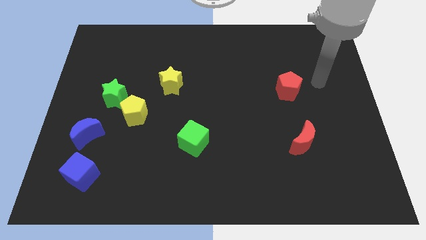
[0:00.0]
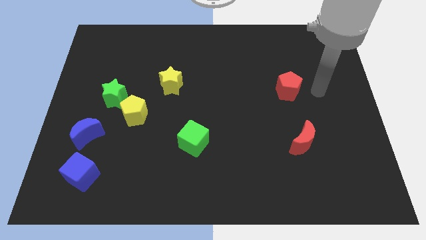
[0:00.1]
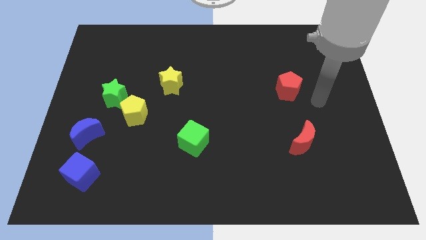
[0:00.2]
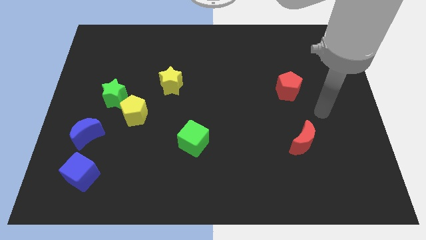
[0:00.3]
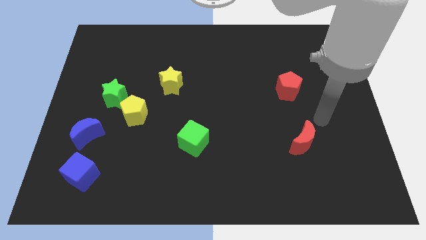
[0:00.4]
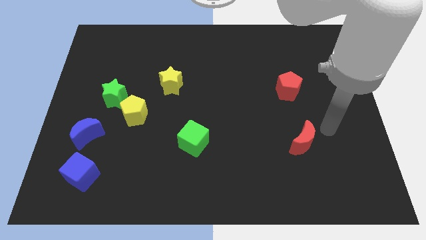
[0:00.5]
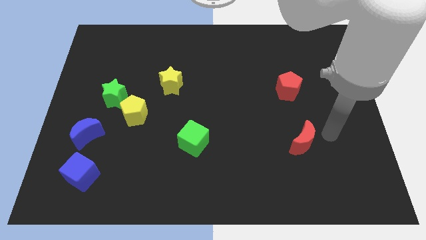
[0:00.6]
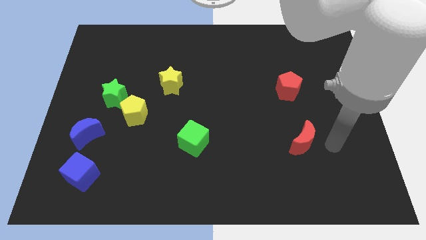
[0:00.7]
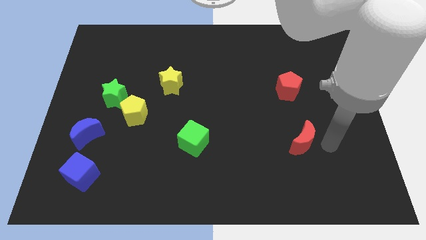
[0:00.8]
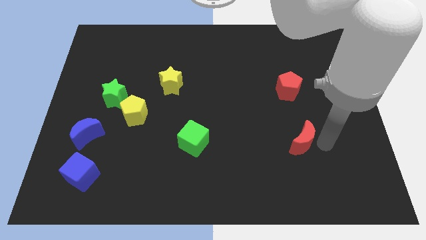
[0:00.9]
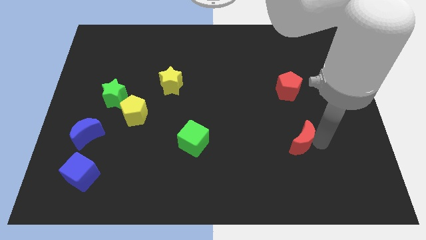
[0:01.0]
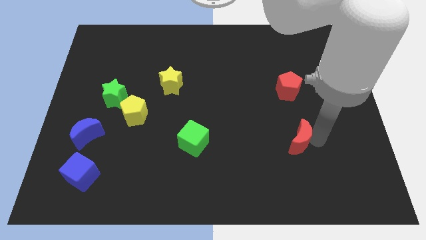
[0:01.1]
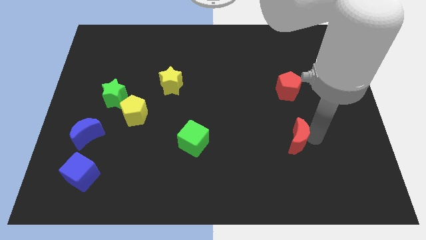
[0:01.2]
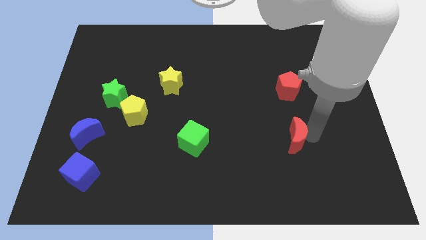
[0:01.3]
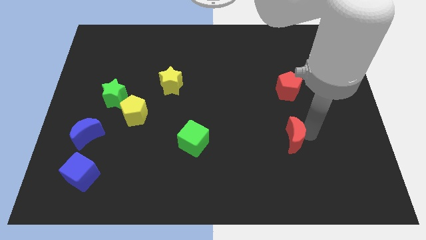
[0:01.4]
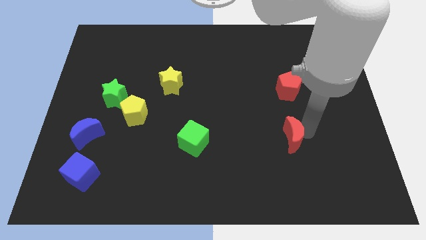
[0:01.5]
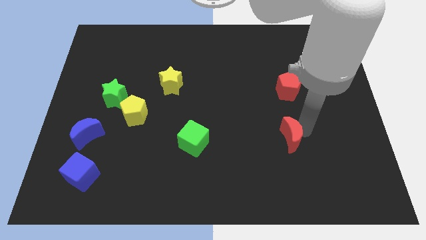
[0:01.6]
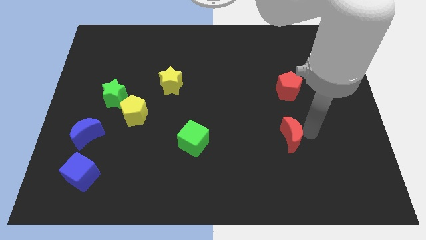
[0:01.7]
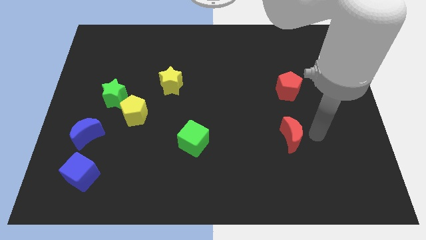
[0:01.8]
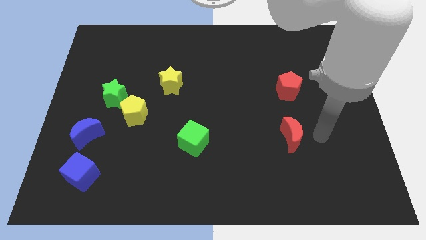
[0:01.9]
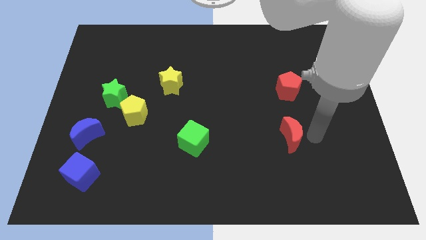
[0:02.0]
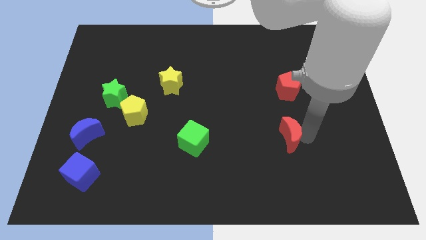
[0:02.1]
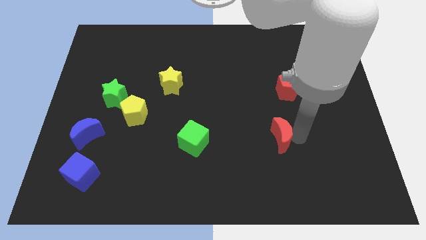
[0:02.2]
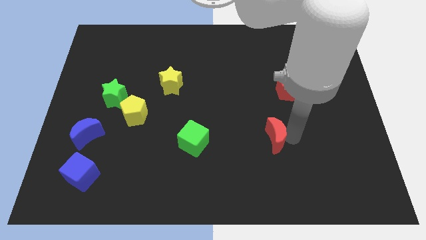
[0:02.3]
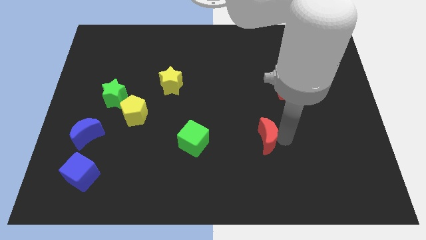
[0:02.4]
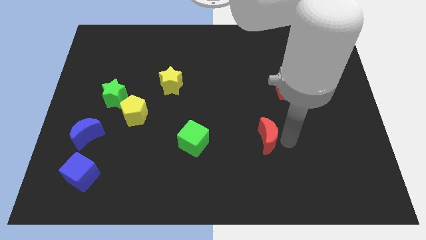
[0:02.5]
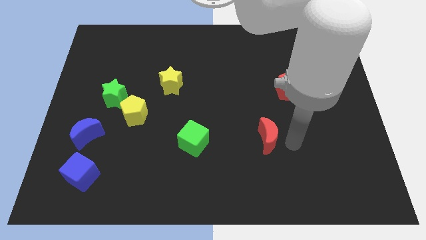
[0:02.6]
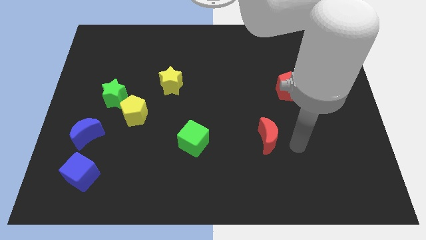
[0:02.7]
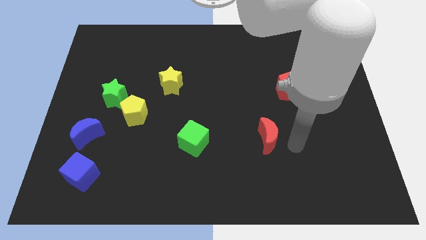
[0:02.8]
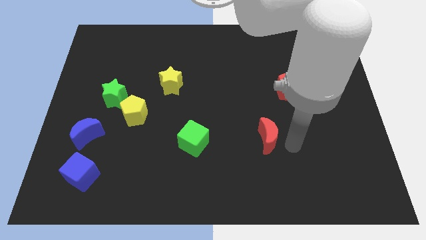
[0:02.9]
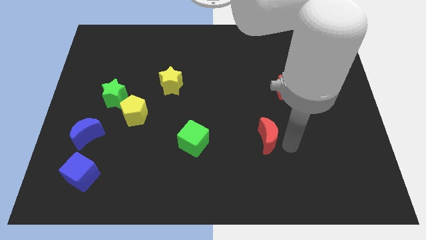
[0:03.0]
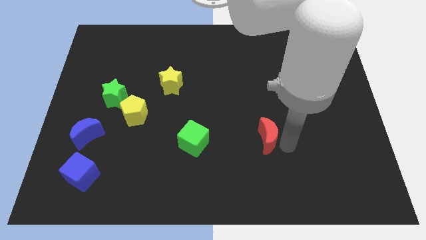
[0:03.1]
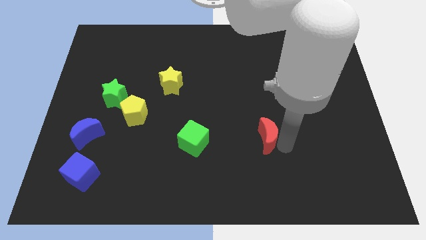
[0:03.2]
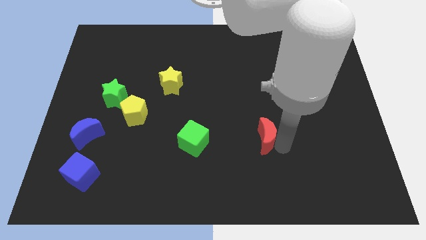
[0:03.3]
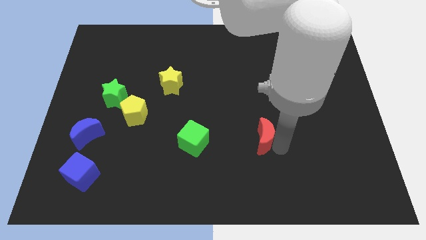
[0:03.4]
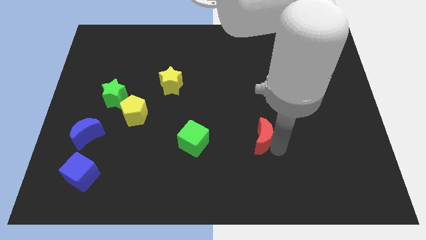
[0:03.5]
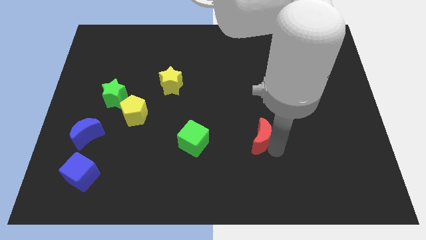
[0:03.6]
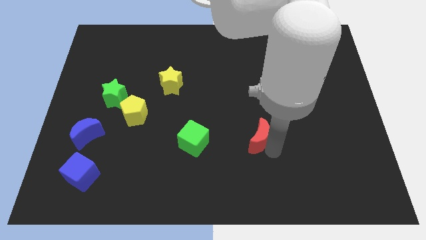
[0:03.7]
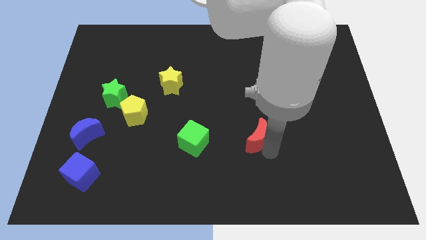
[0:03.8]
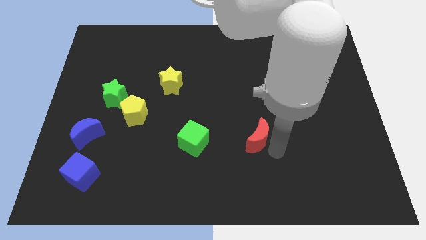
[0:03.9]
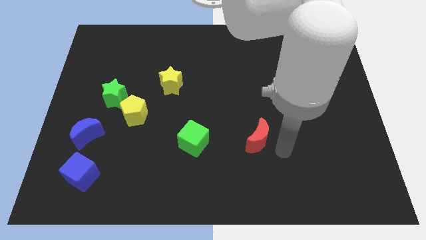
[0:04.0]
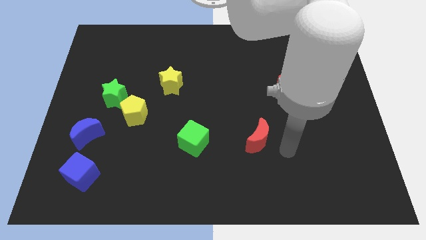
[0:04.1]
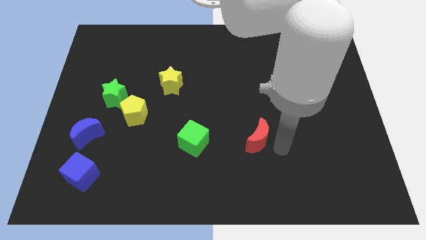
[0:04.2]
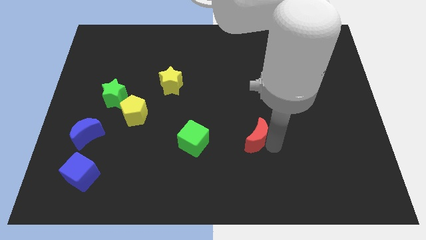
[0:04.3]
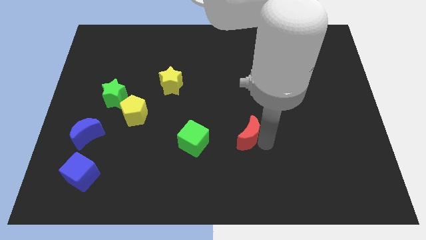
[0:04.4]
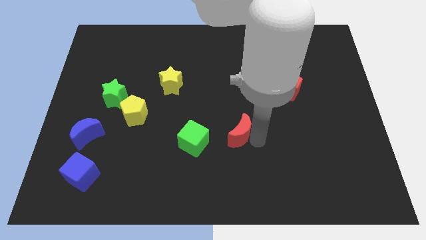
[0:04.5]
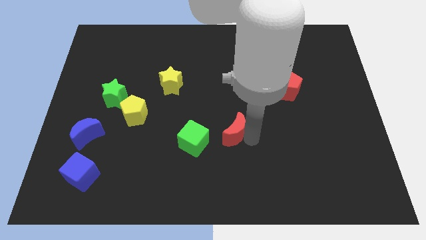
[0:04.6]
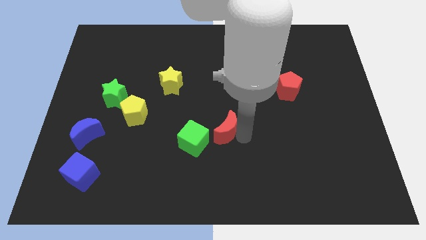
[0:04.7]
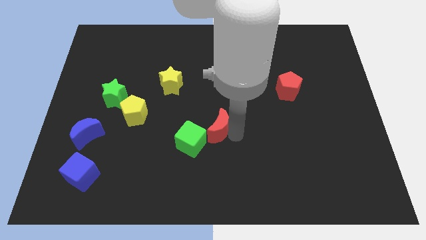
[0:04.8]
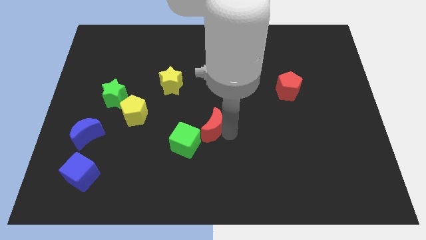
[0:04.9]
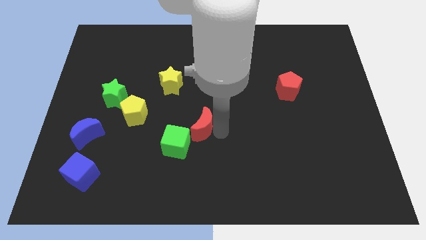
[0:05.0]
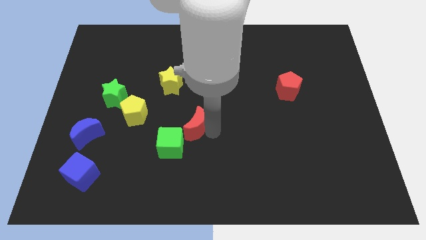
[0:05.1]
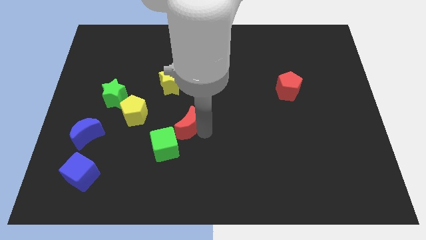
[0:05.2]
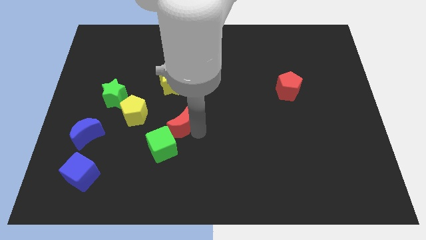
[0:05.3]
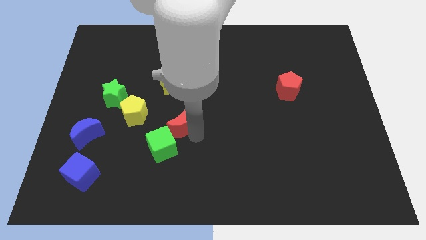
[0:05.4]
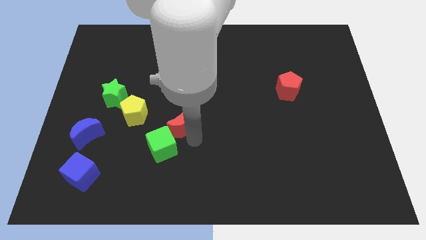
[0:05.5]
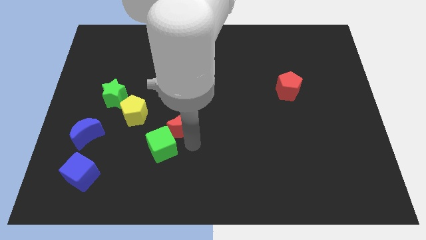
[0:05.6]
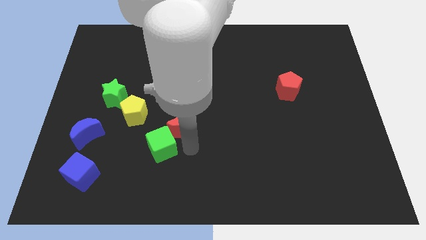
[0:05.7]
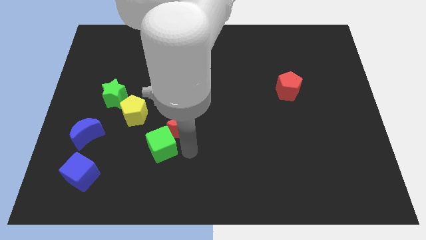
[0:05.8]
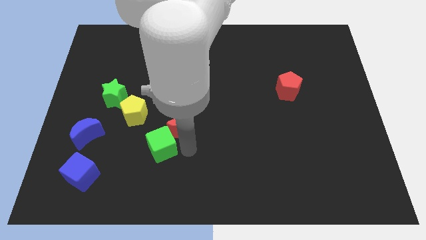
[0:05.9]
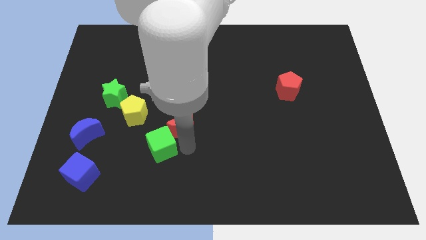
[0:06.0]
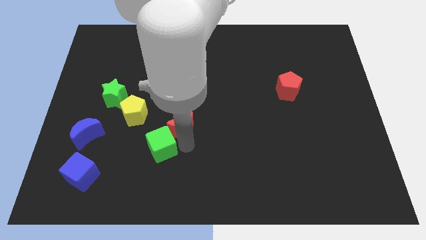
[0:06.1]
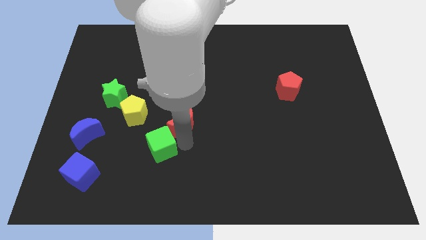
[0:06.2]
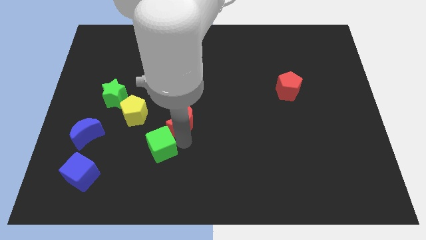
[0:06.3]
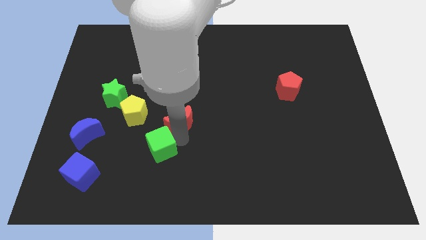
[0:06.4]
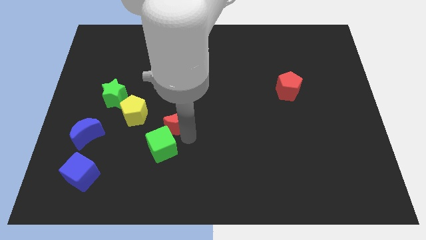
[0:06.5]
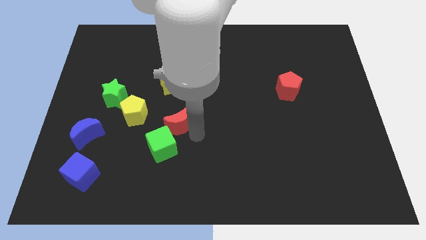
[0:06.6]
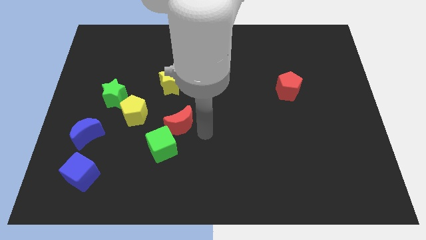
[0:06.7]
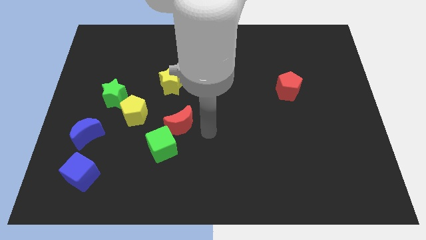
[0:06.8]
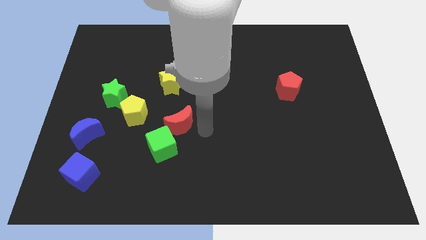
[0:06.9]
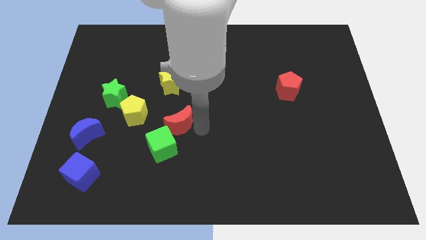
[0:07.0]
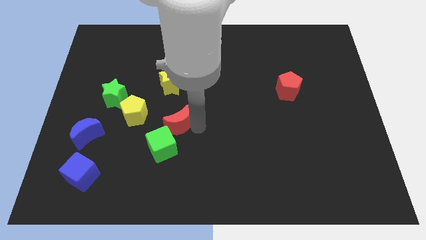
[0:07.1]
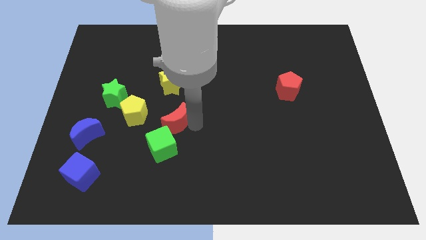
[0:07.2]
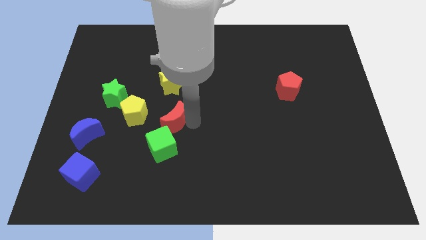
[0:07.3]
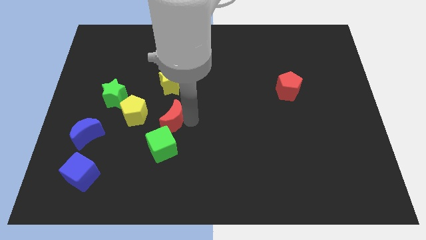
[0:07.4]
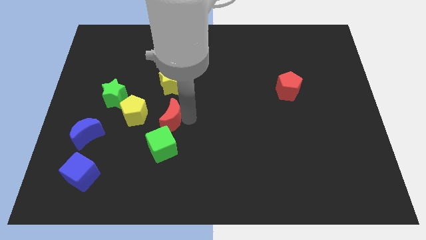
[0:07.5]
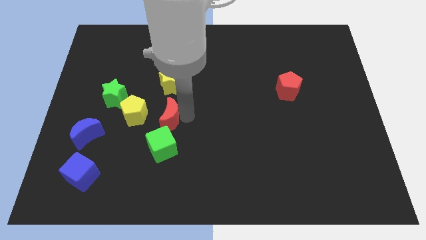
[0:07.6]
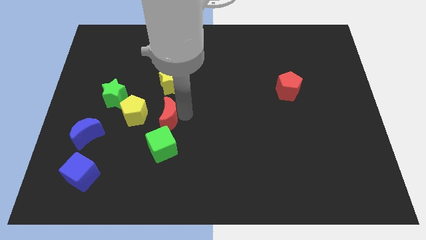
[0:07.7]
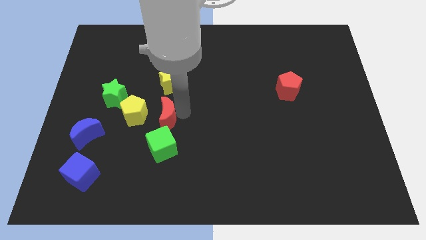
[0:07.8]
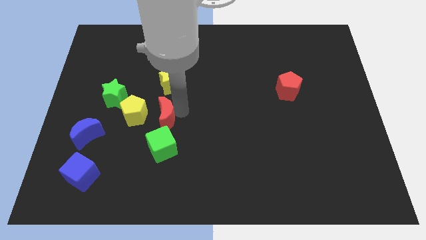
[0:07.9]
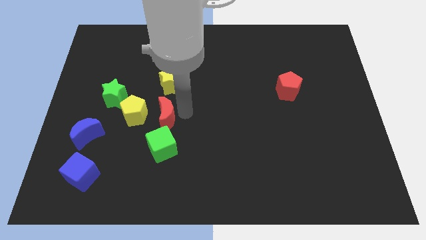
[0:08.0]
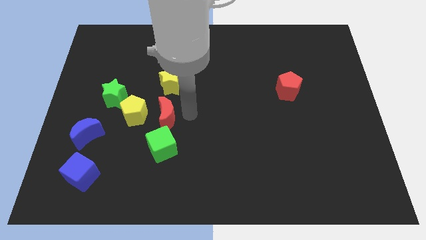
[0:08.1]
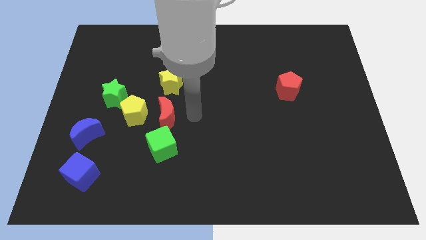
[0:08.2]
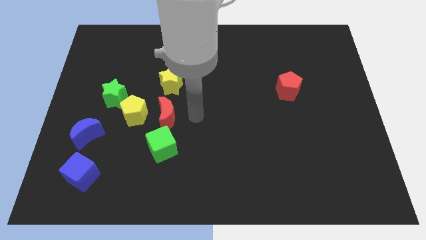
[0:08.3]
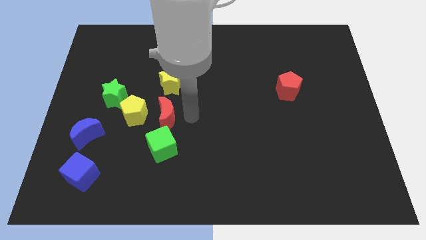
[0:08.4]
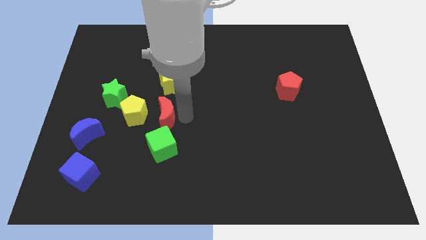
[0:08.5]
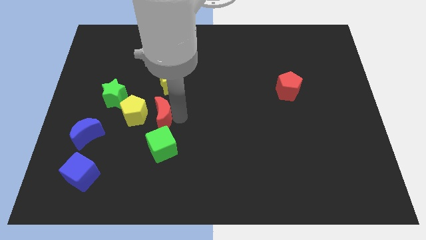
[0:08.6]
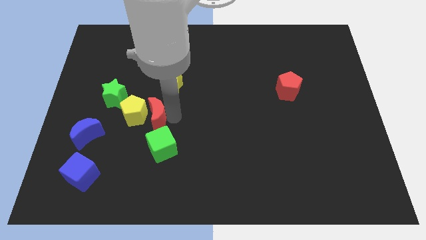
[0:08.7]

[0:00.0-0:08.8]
move the red moon to the yellow pentagon
